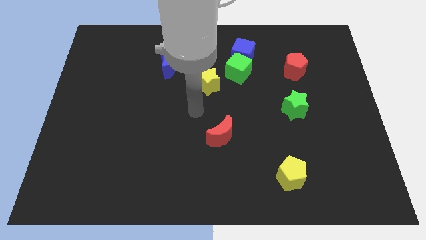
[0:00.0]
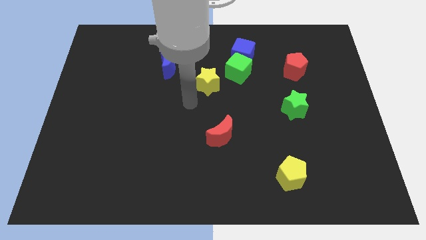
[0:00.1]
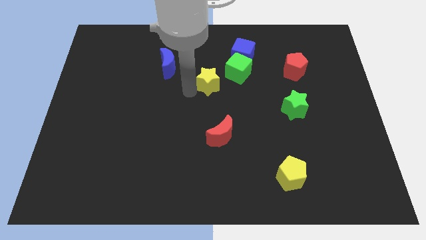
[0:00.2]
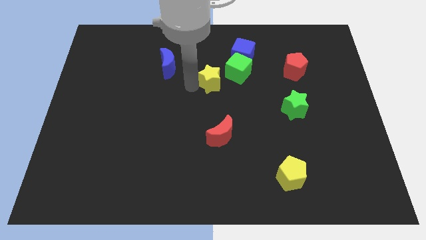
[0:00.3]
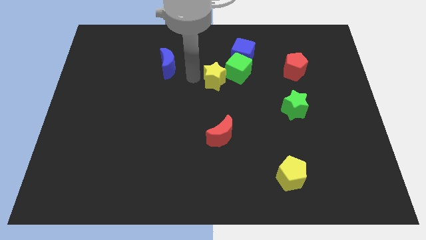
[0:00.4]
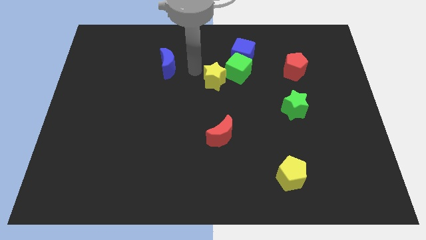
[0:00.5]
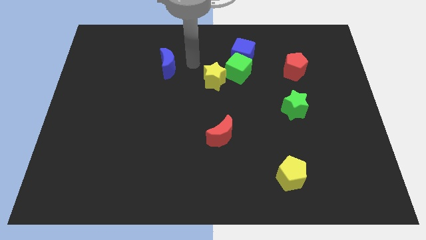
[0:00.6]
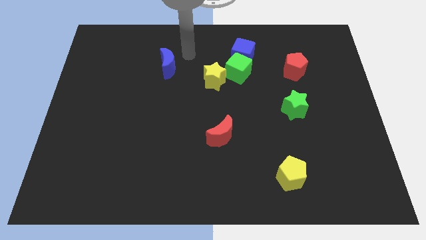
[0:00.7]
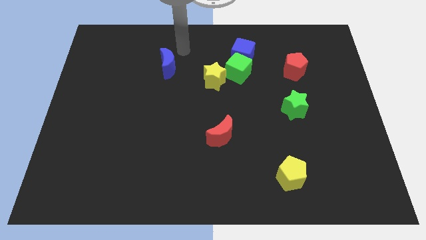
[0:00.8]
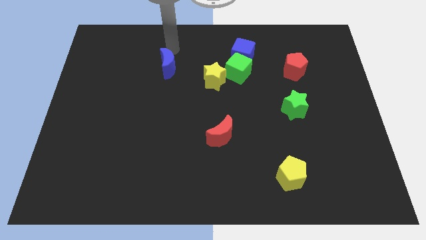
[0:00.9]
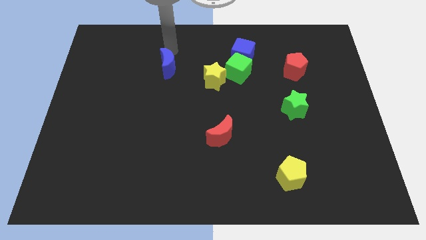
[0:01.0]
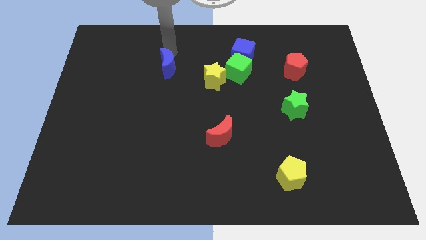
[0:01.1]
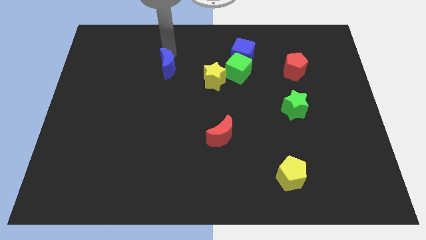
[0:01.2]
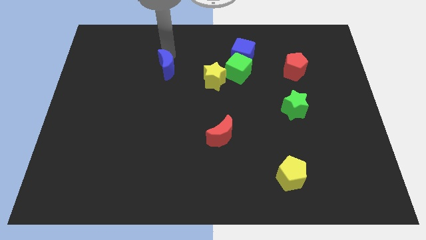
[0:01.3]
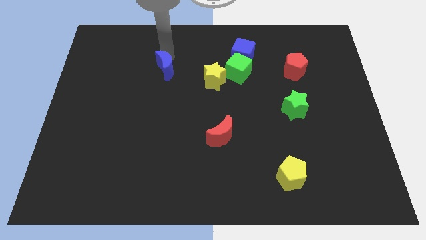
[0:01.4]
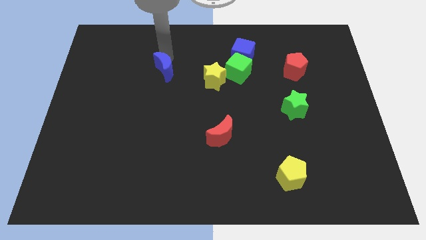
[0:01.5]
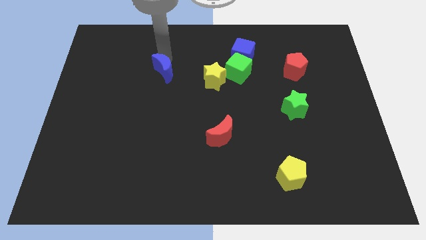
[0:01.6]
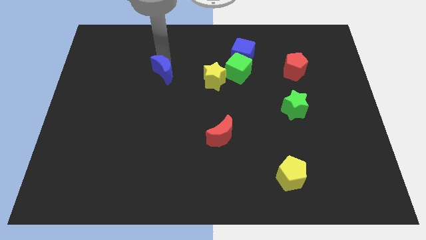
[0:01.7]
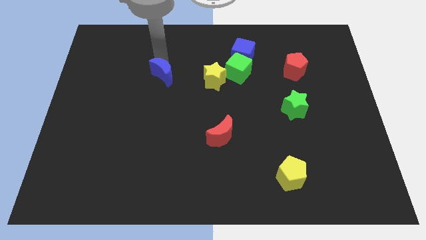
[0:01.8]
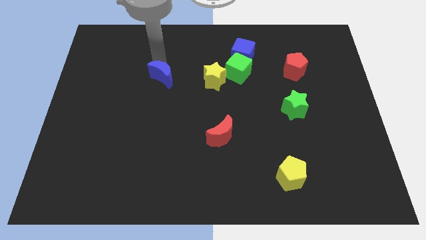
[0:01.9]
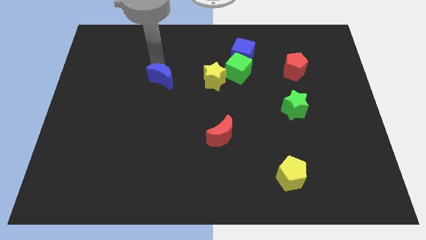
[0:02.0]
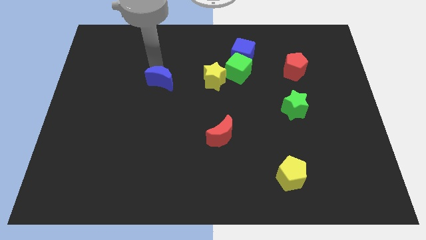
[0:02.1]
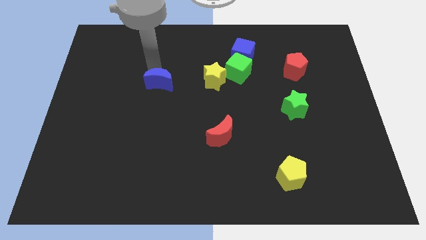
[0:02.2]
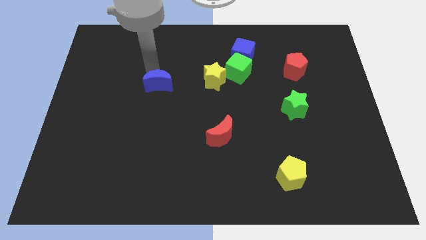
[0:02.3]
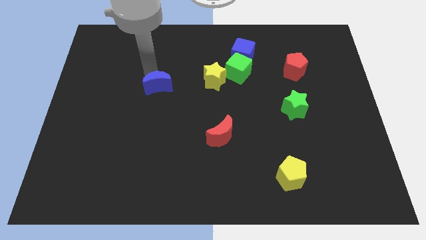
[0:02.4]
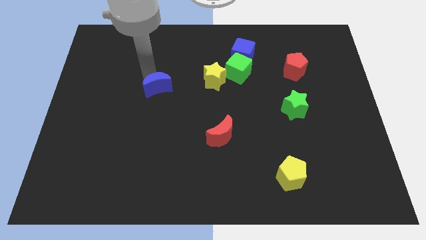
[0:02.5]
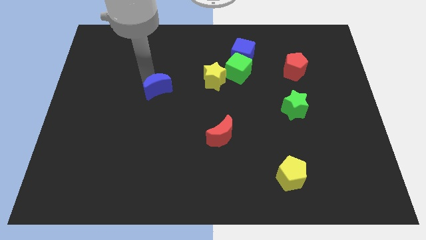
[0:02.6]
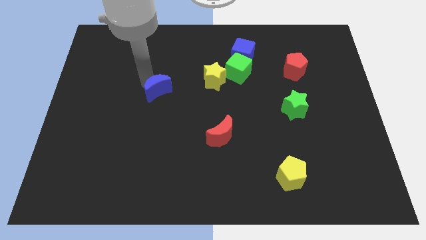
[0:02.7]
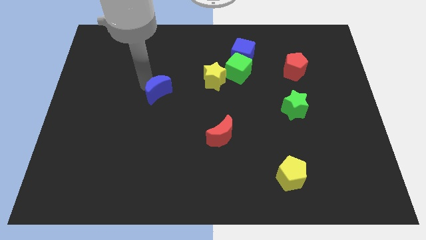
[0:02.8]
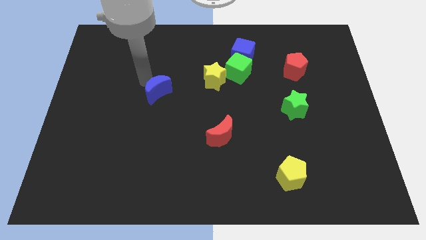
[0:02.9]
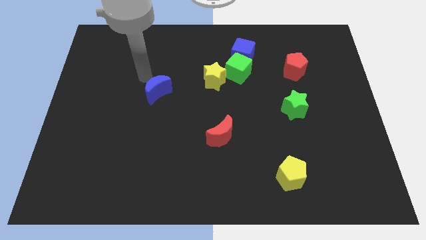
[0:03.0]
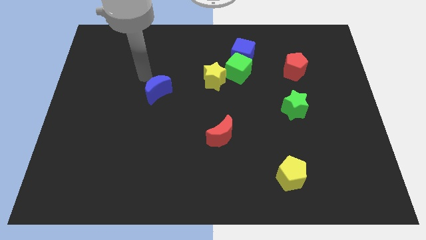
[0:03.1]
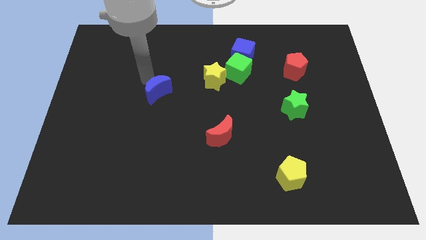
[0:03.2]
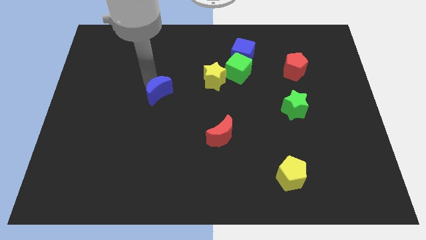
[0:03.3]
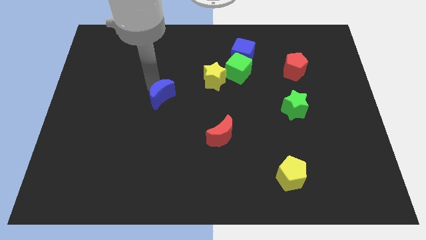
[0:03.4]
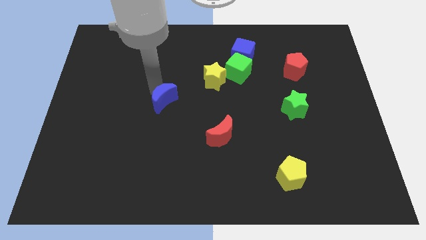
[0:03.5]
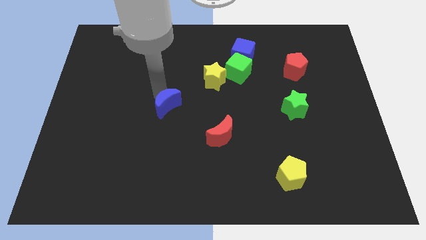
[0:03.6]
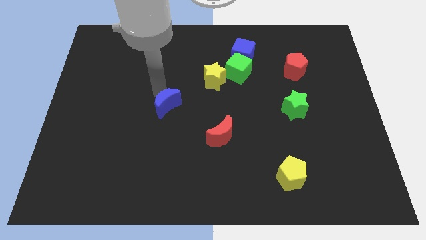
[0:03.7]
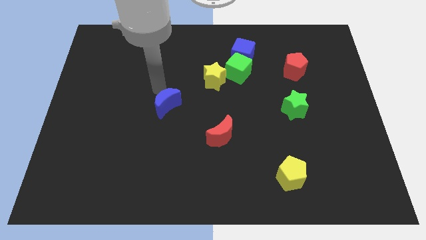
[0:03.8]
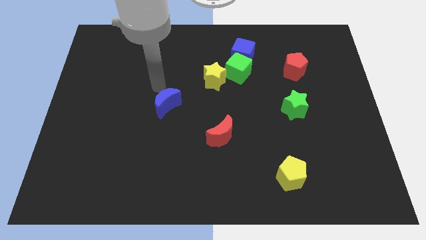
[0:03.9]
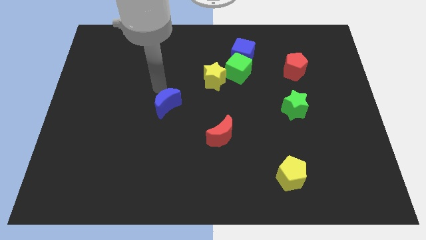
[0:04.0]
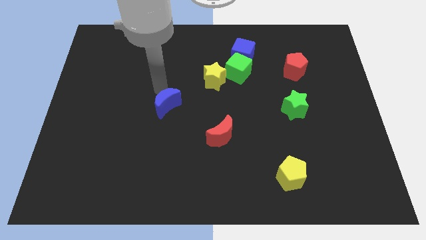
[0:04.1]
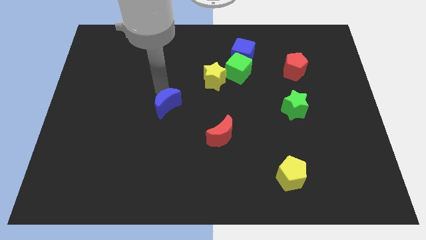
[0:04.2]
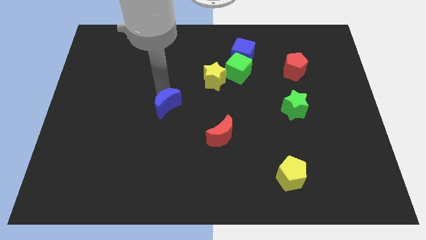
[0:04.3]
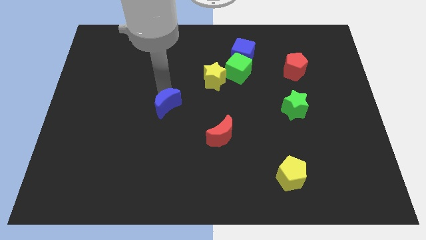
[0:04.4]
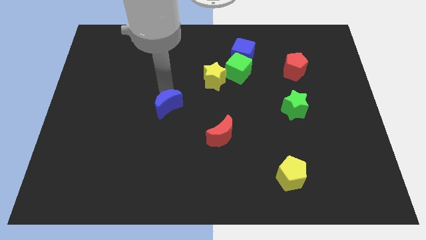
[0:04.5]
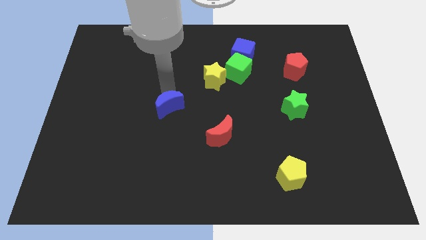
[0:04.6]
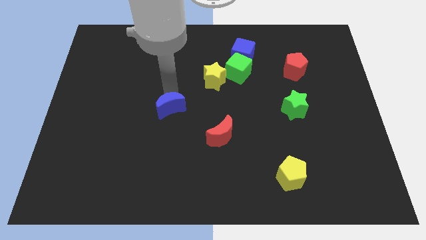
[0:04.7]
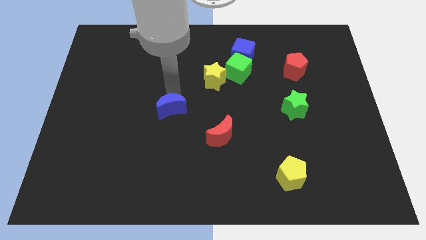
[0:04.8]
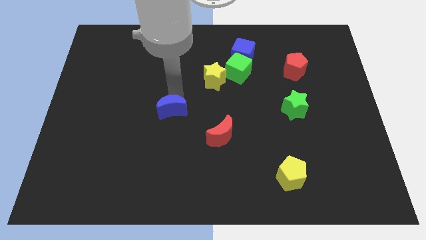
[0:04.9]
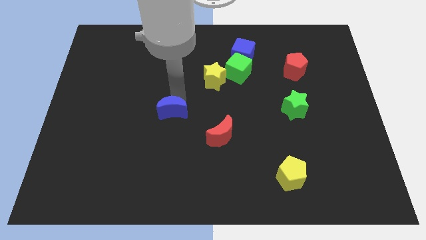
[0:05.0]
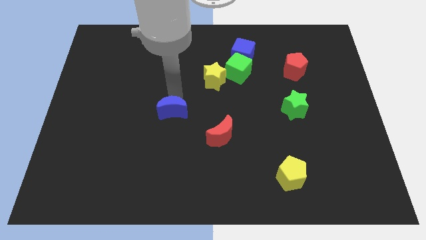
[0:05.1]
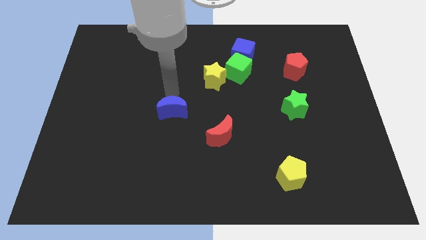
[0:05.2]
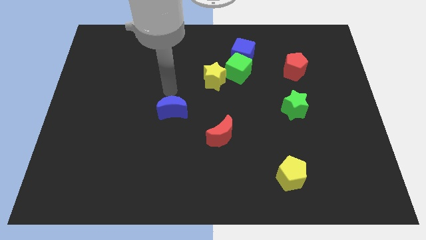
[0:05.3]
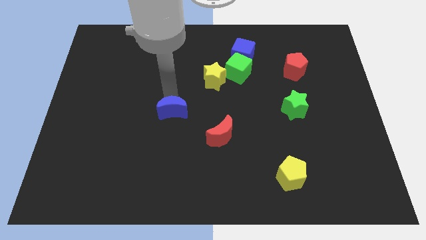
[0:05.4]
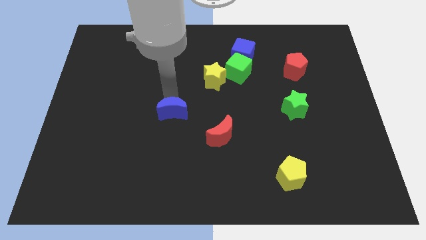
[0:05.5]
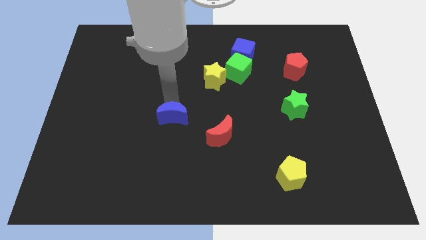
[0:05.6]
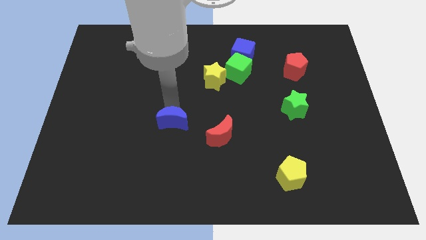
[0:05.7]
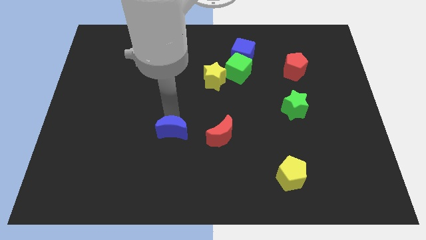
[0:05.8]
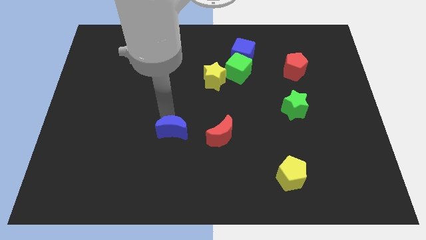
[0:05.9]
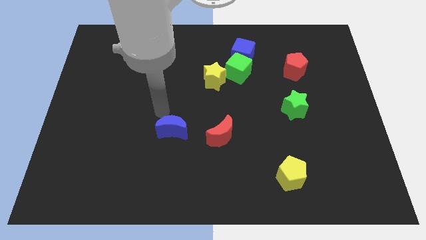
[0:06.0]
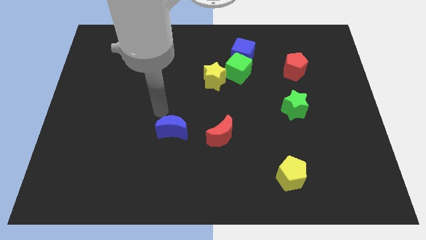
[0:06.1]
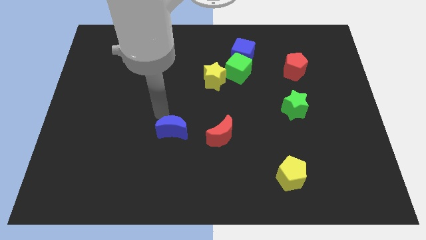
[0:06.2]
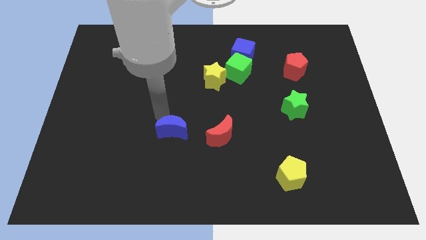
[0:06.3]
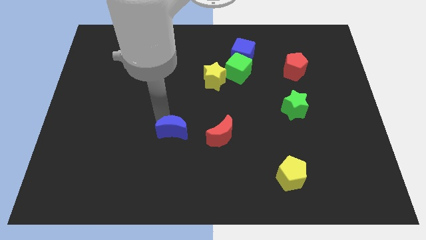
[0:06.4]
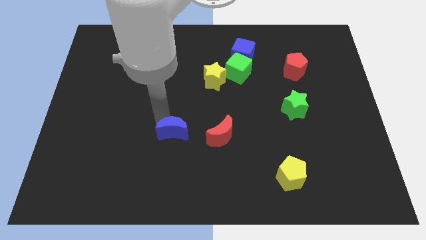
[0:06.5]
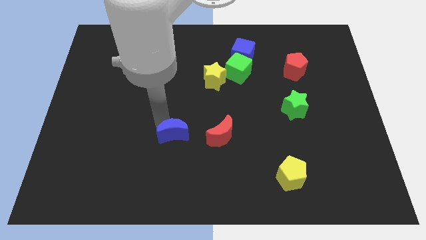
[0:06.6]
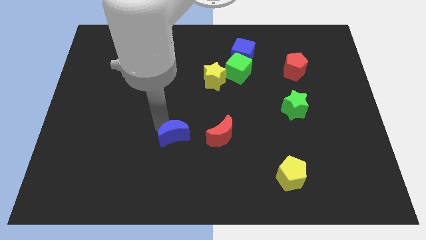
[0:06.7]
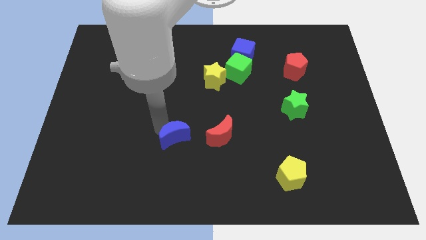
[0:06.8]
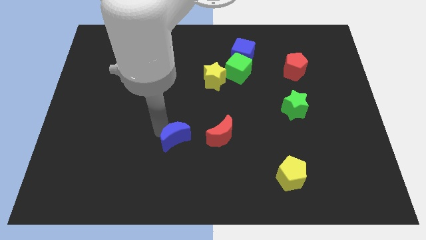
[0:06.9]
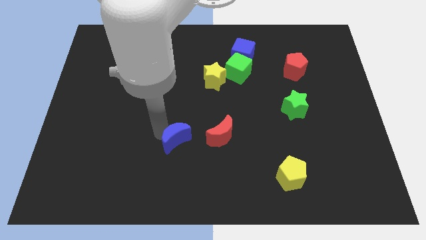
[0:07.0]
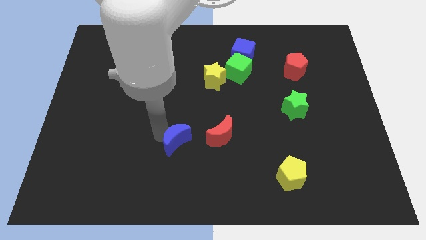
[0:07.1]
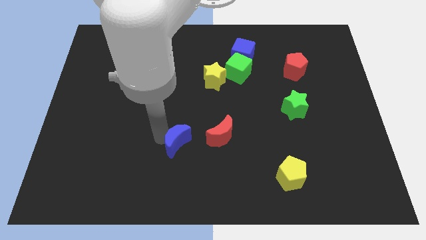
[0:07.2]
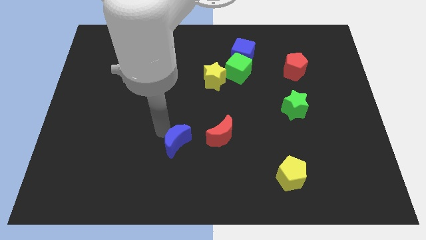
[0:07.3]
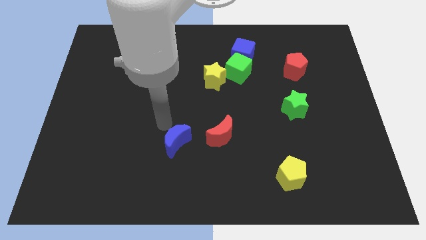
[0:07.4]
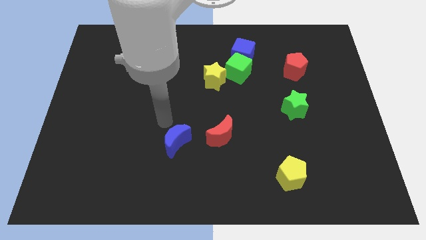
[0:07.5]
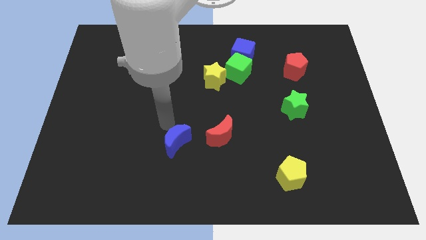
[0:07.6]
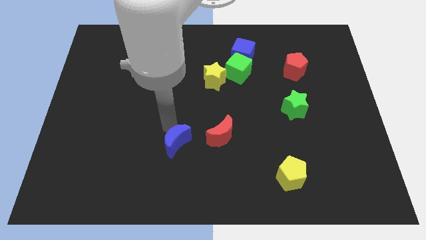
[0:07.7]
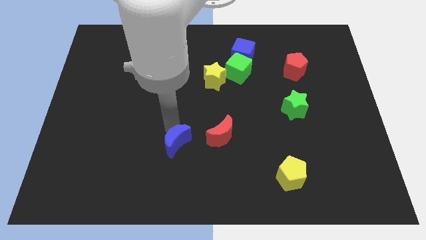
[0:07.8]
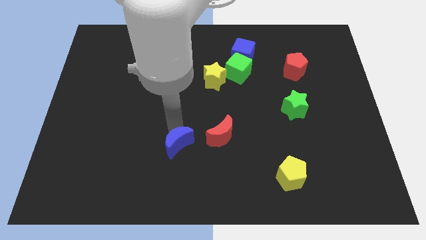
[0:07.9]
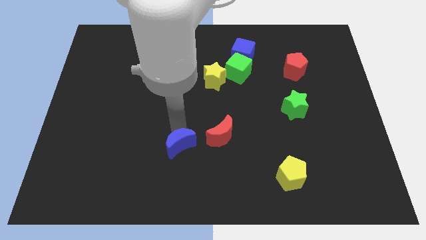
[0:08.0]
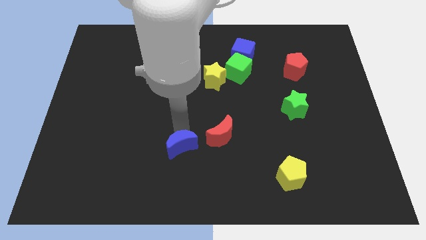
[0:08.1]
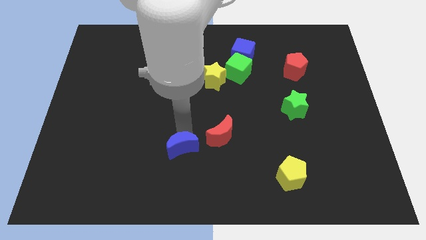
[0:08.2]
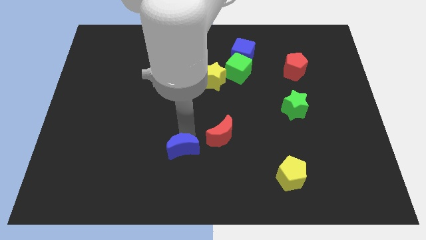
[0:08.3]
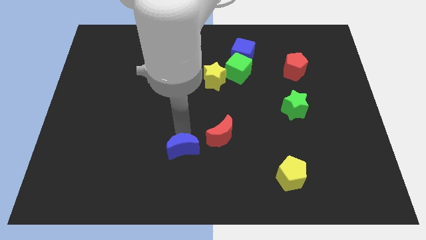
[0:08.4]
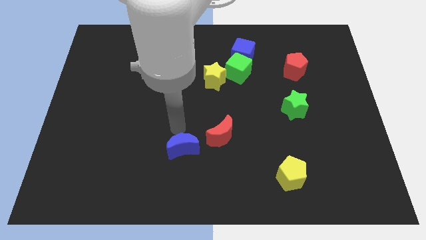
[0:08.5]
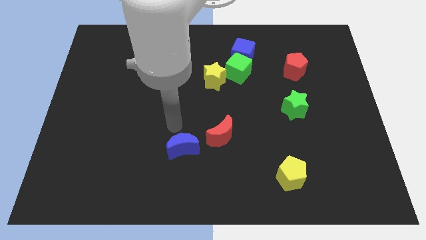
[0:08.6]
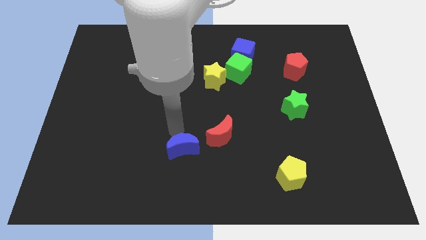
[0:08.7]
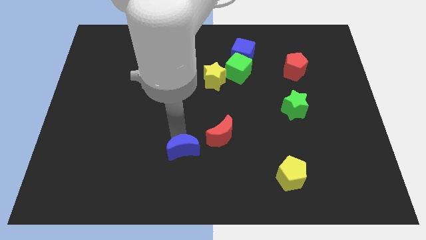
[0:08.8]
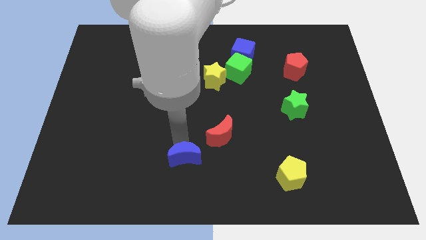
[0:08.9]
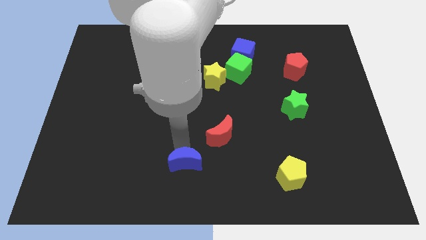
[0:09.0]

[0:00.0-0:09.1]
put the blue moon to the bottom
